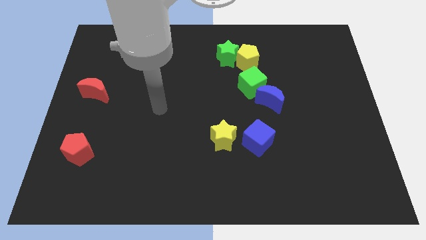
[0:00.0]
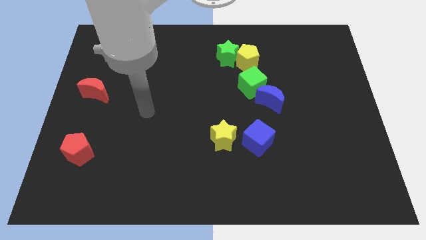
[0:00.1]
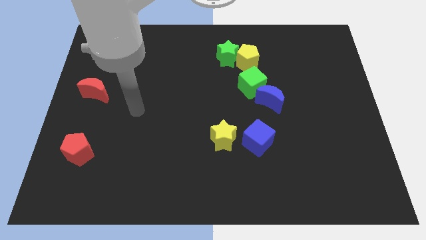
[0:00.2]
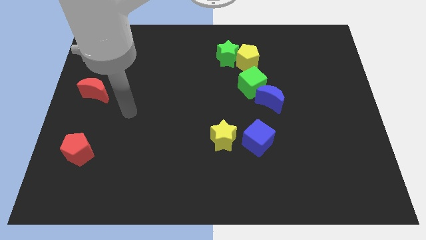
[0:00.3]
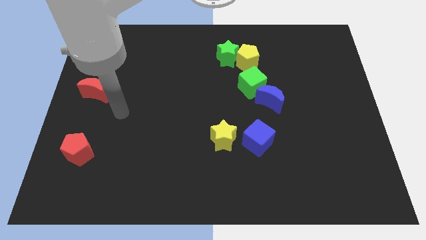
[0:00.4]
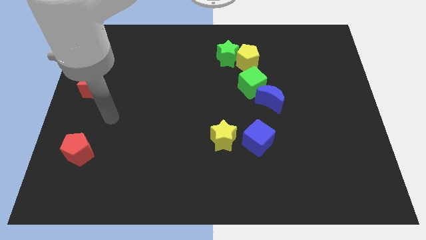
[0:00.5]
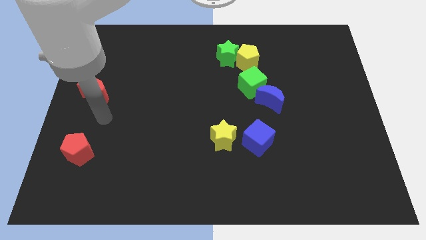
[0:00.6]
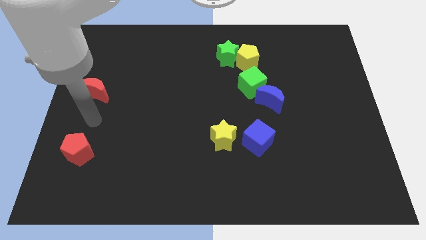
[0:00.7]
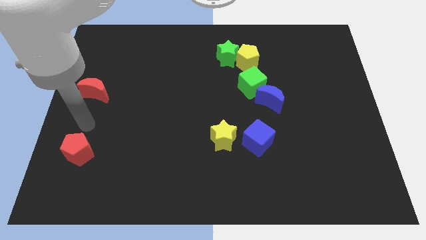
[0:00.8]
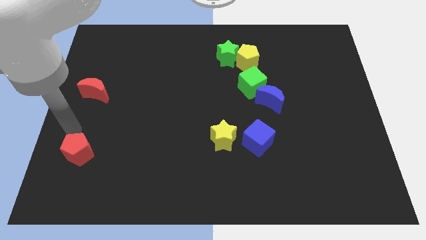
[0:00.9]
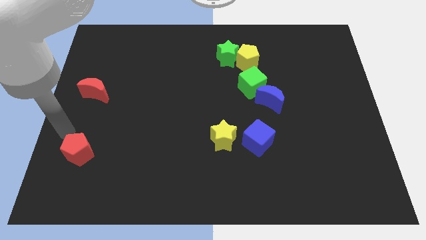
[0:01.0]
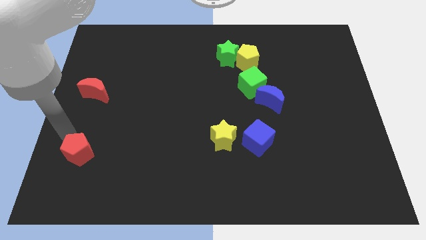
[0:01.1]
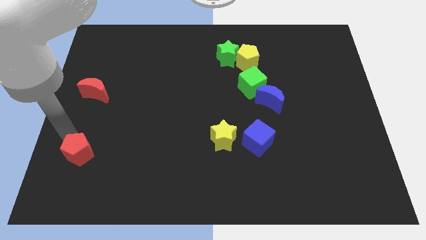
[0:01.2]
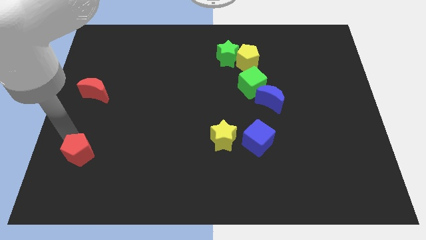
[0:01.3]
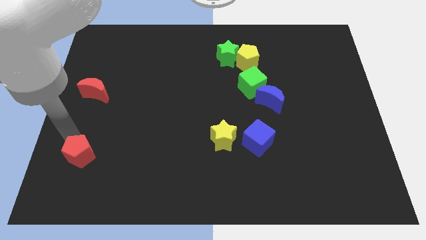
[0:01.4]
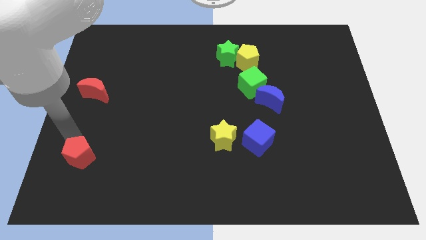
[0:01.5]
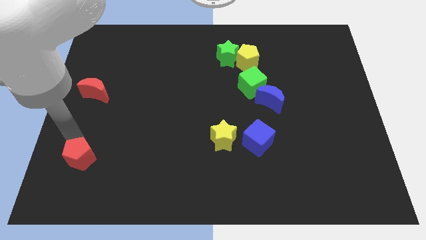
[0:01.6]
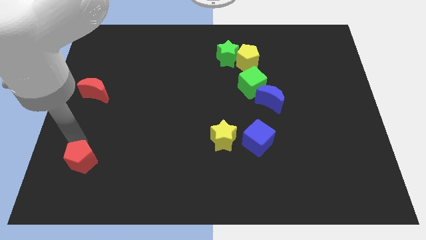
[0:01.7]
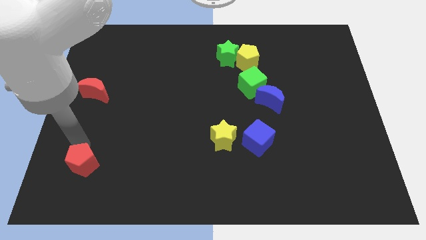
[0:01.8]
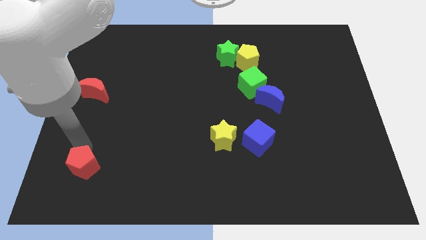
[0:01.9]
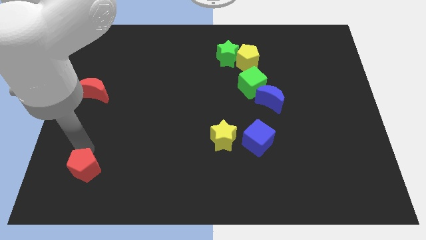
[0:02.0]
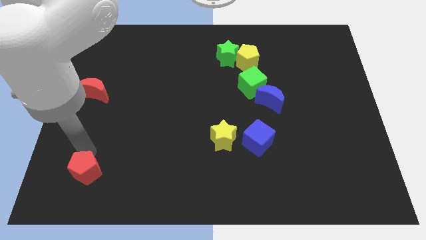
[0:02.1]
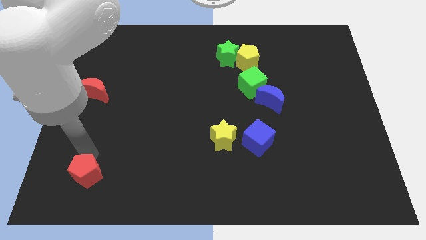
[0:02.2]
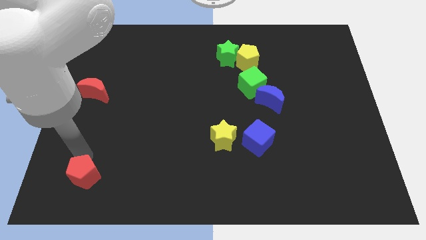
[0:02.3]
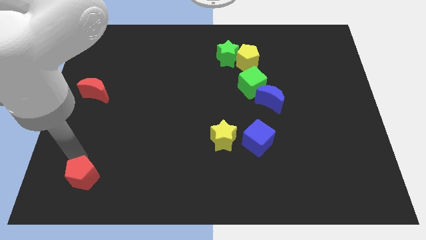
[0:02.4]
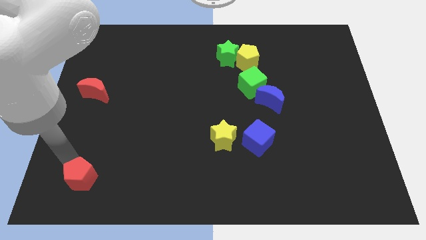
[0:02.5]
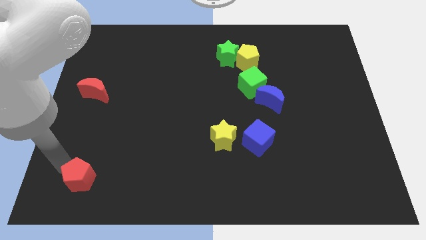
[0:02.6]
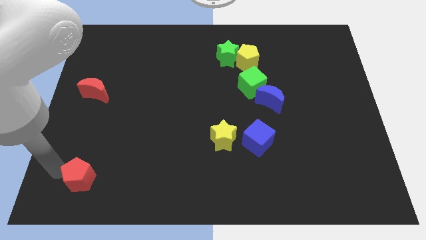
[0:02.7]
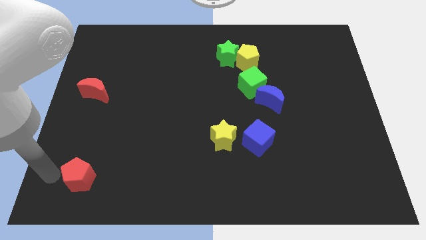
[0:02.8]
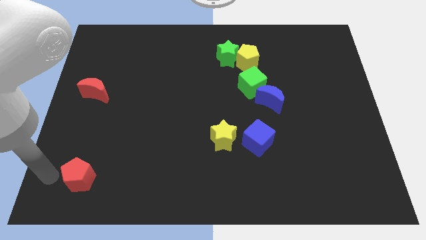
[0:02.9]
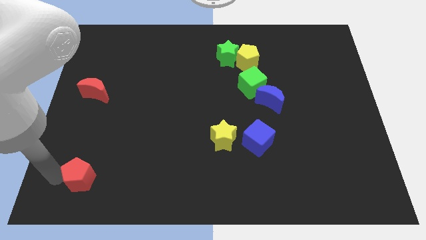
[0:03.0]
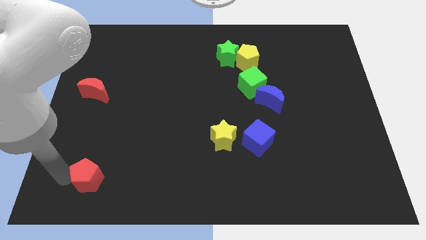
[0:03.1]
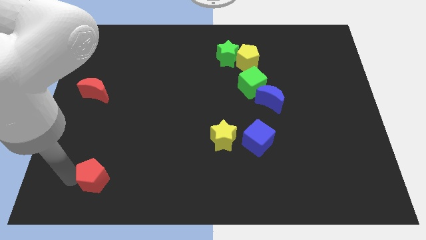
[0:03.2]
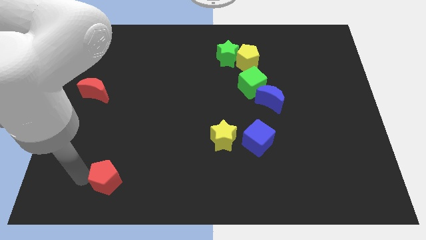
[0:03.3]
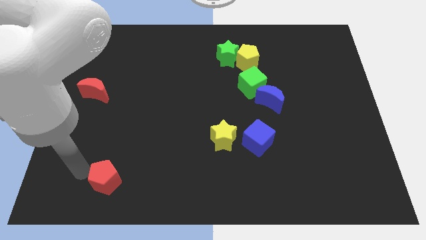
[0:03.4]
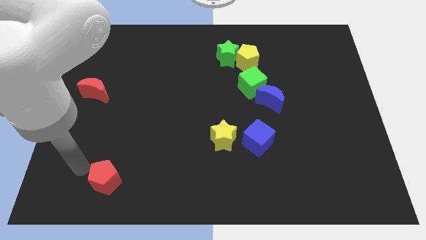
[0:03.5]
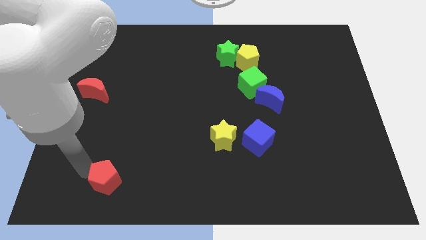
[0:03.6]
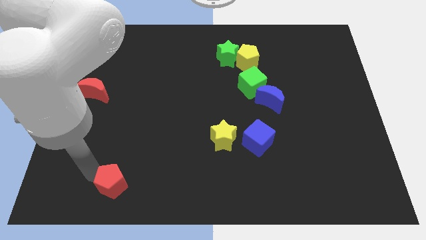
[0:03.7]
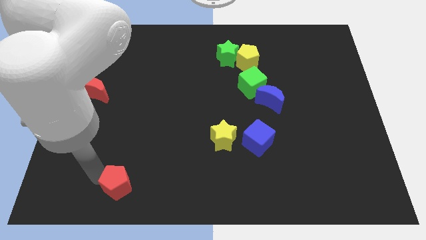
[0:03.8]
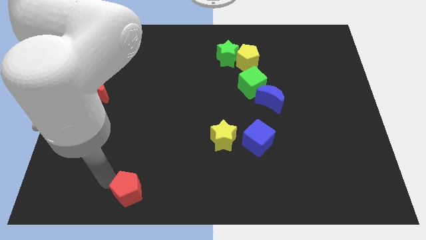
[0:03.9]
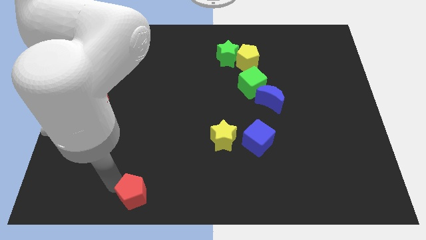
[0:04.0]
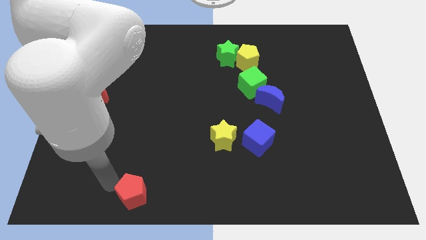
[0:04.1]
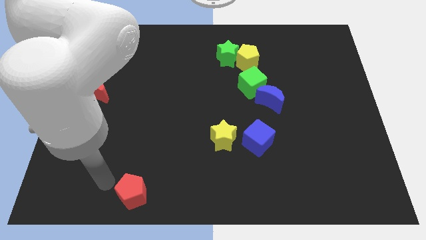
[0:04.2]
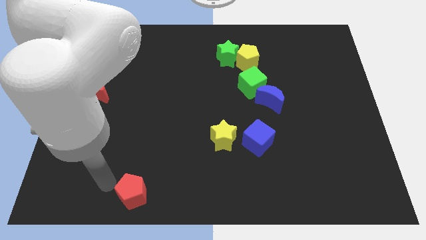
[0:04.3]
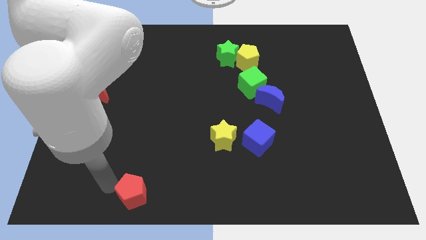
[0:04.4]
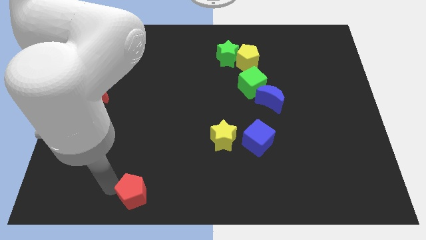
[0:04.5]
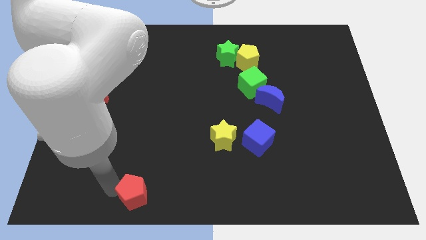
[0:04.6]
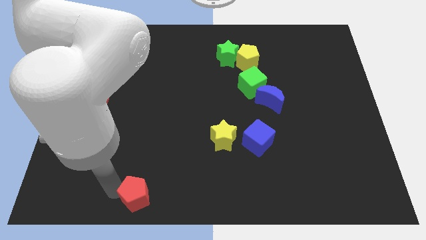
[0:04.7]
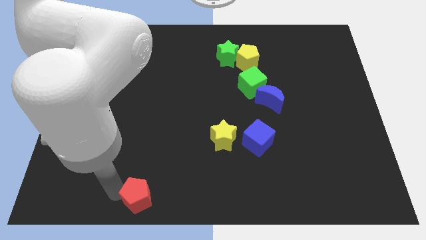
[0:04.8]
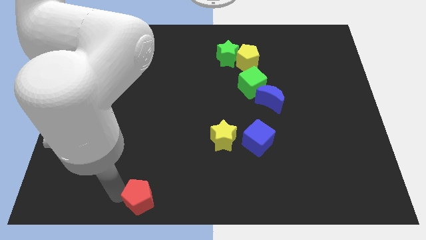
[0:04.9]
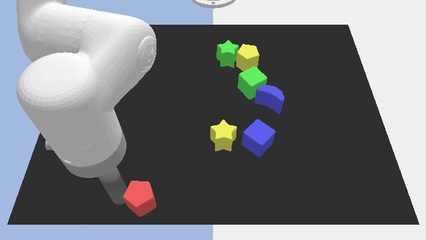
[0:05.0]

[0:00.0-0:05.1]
push the red pentagon to the bottom

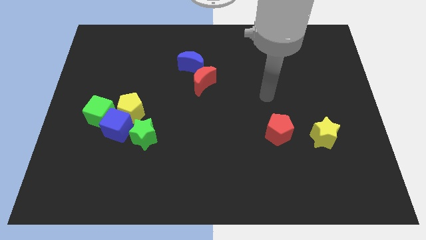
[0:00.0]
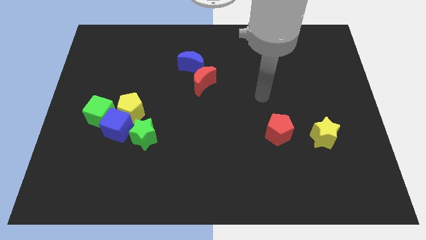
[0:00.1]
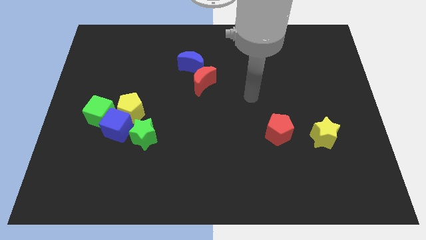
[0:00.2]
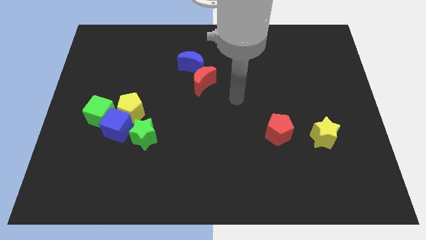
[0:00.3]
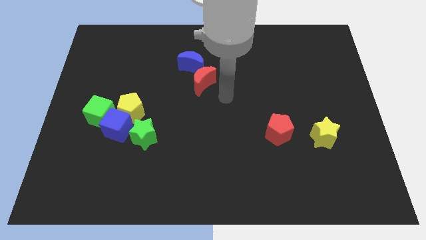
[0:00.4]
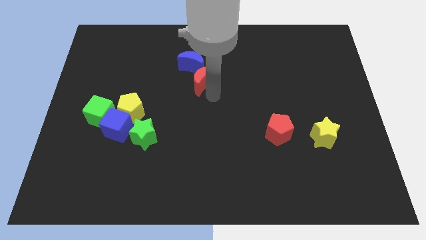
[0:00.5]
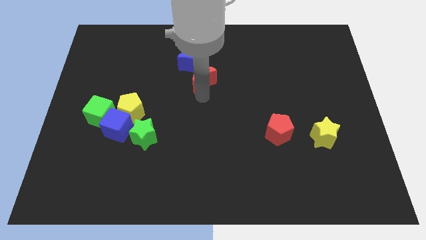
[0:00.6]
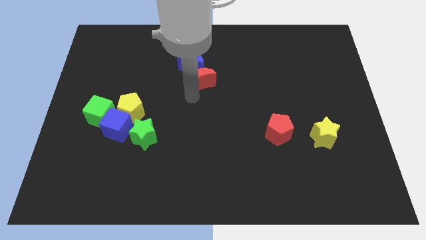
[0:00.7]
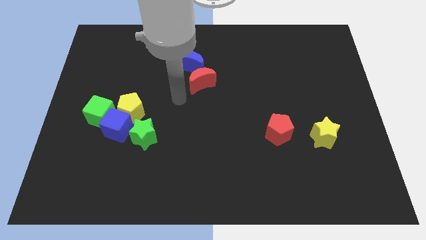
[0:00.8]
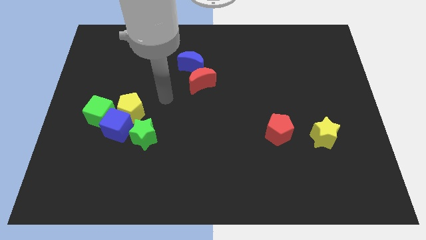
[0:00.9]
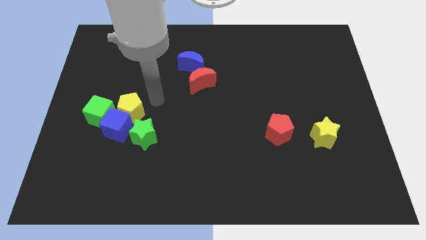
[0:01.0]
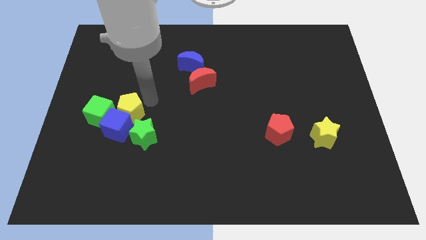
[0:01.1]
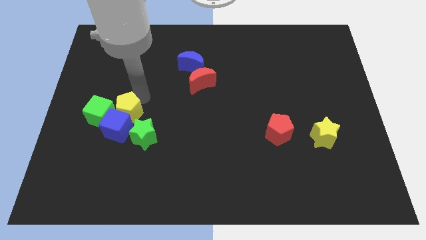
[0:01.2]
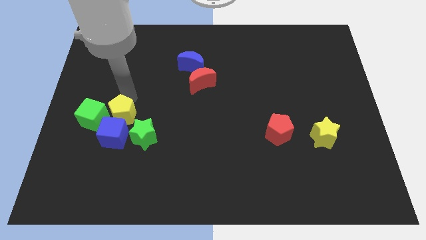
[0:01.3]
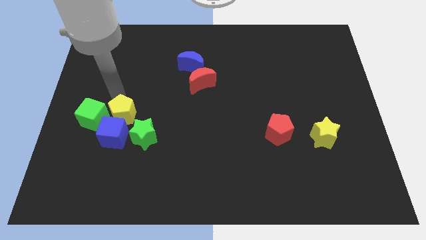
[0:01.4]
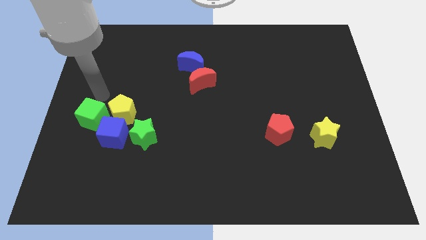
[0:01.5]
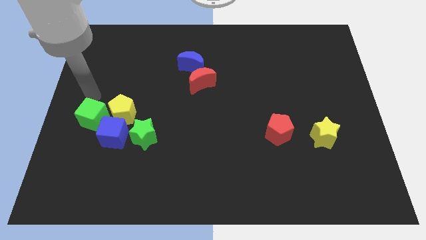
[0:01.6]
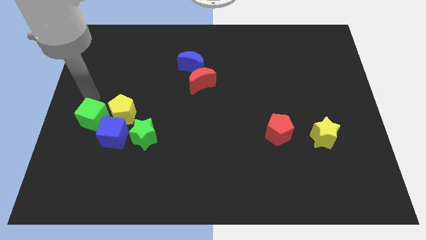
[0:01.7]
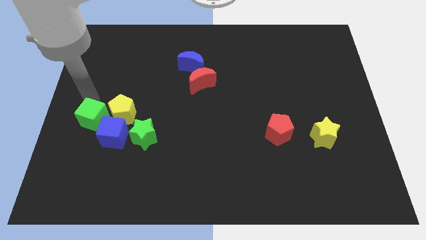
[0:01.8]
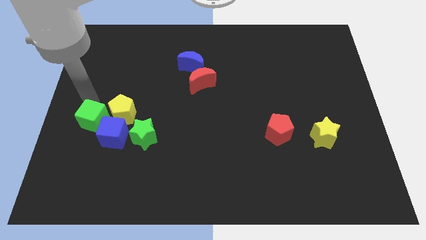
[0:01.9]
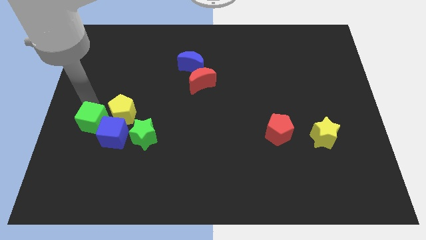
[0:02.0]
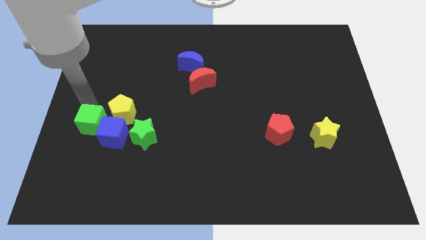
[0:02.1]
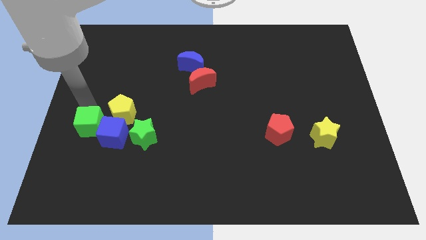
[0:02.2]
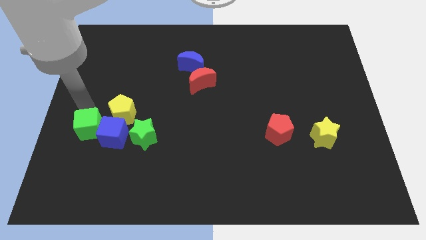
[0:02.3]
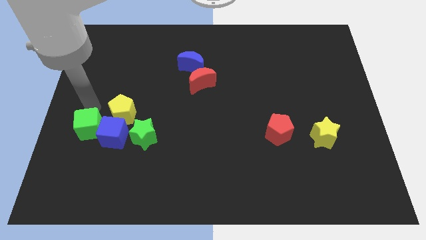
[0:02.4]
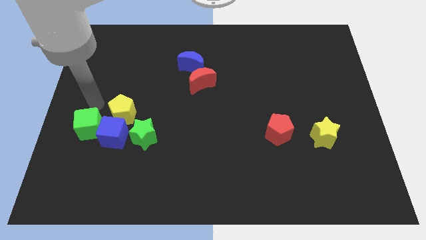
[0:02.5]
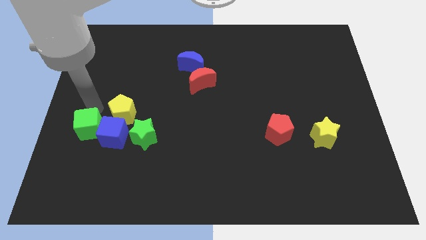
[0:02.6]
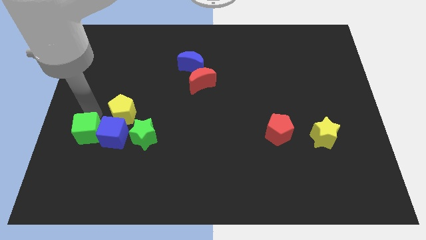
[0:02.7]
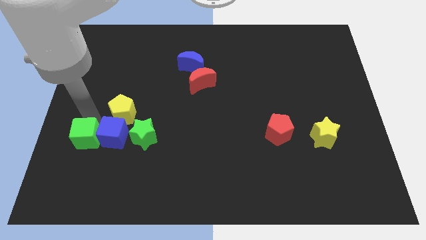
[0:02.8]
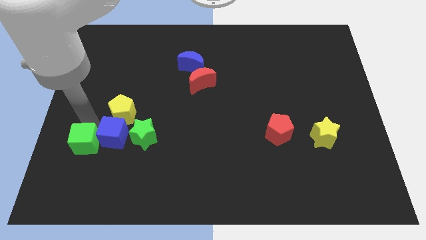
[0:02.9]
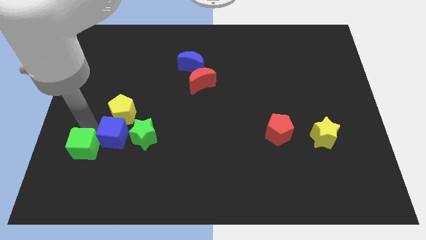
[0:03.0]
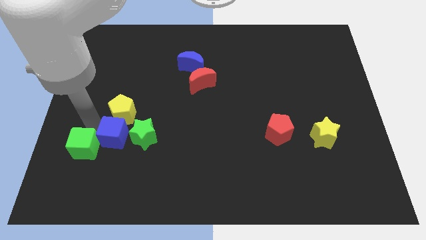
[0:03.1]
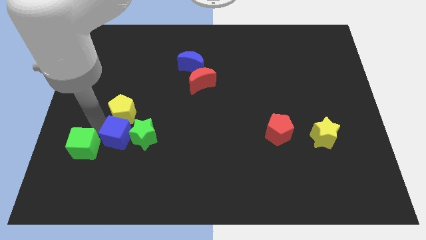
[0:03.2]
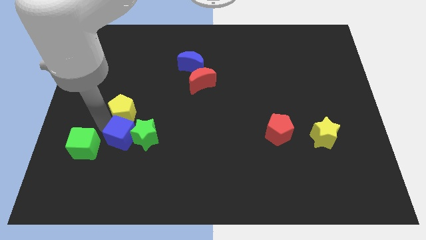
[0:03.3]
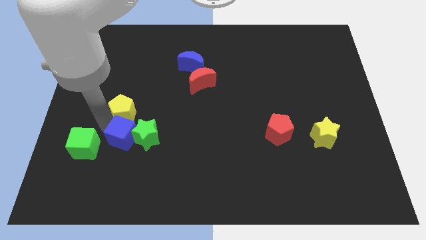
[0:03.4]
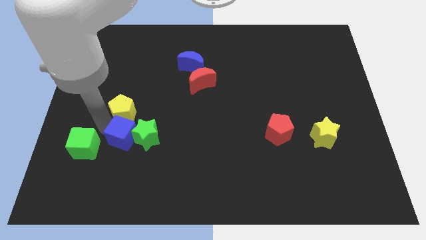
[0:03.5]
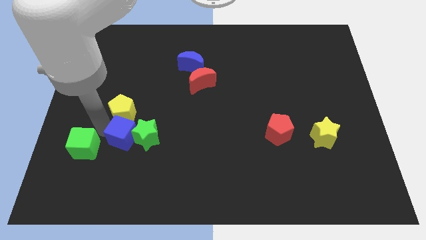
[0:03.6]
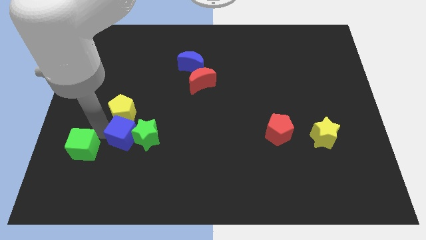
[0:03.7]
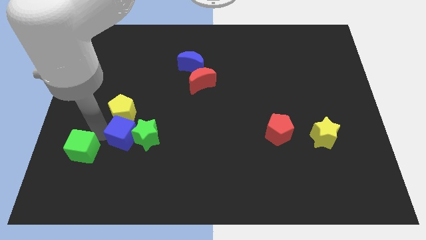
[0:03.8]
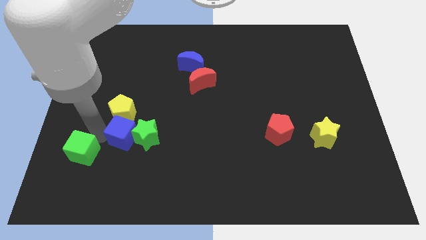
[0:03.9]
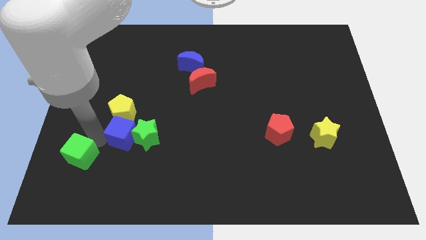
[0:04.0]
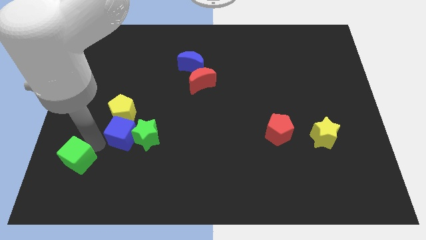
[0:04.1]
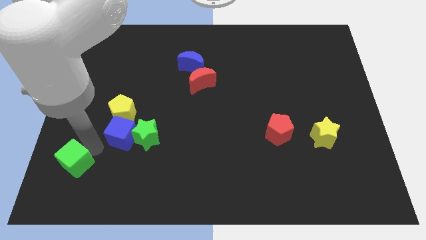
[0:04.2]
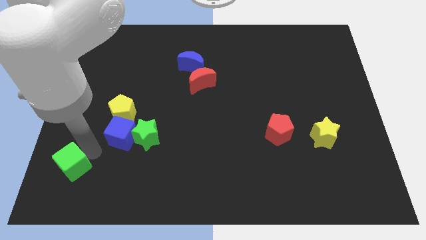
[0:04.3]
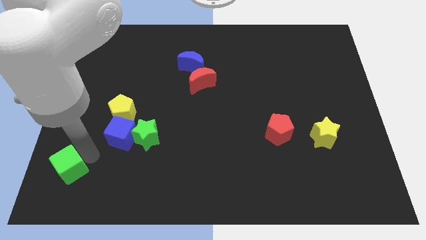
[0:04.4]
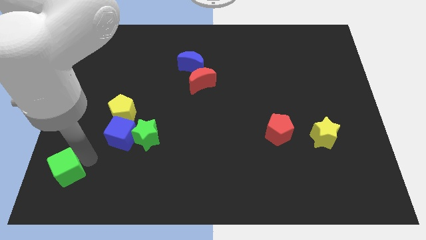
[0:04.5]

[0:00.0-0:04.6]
put the green cube to the bottom left corner
